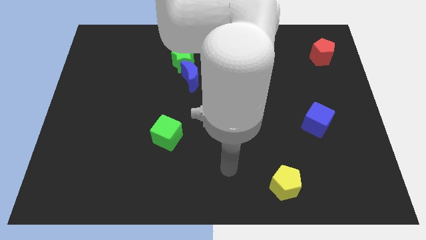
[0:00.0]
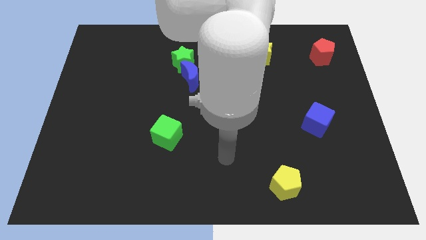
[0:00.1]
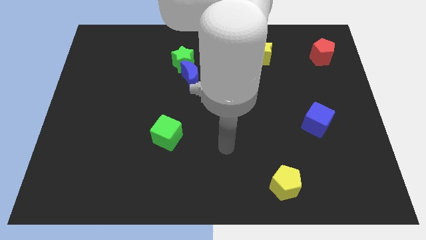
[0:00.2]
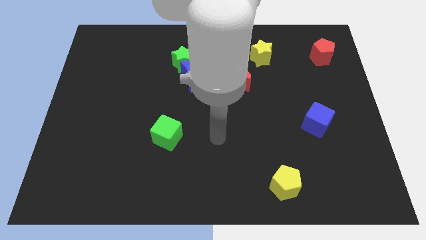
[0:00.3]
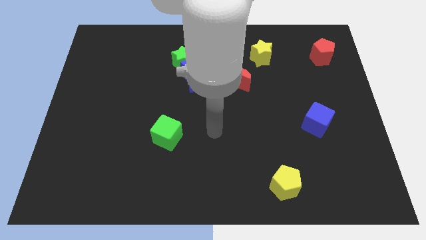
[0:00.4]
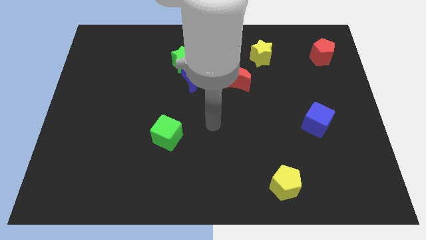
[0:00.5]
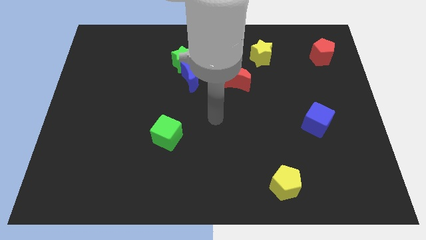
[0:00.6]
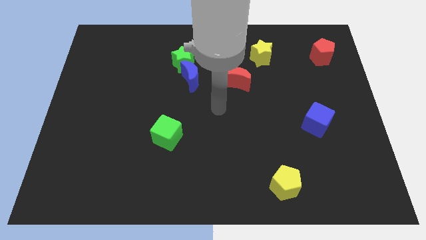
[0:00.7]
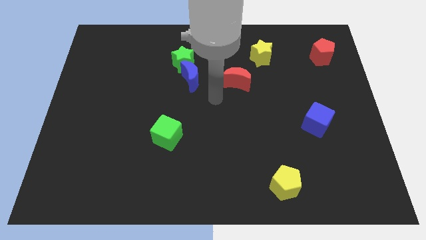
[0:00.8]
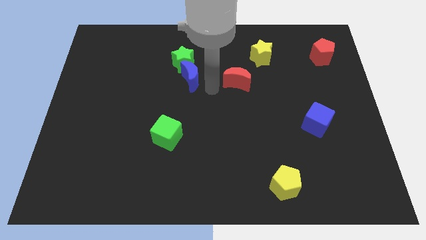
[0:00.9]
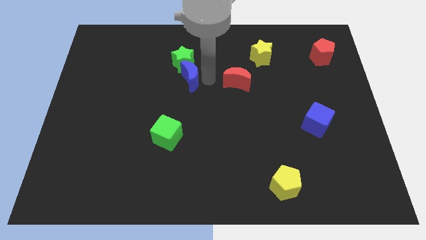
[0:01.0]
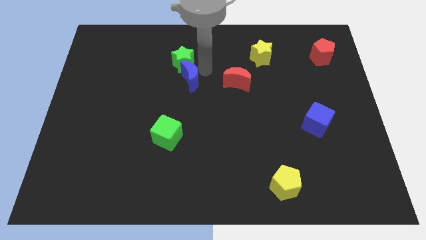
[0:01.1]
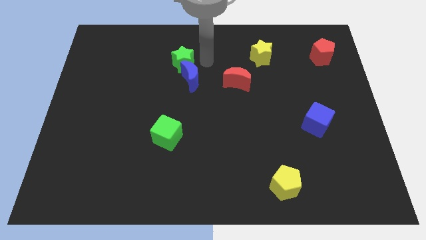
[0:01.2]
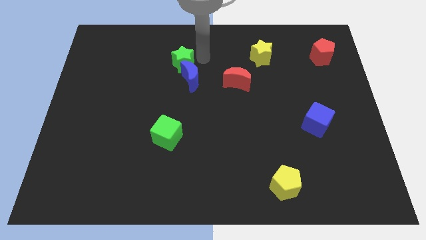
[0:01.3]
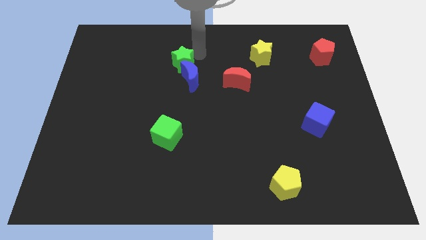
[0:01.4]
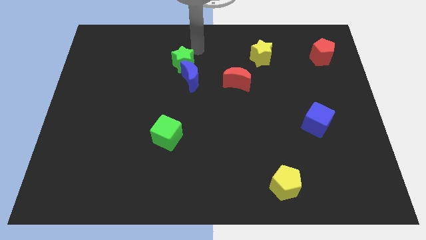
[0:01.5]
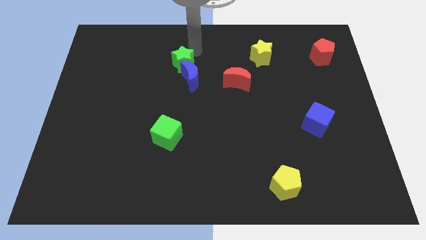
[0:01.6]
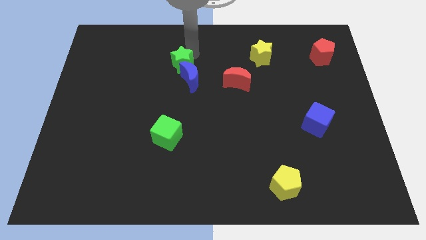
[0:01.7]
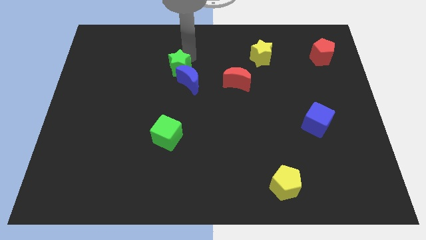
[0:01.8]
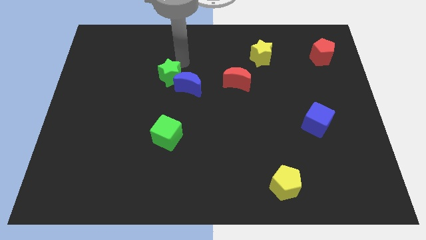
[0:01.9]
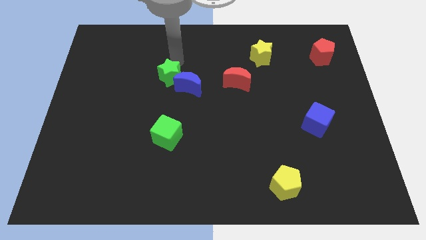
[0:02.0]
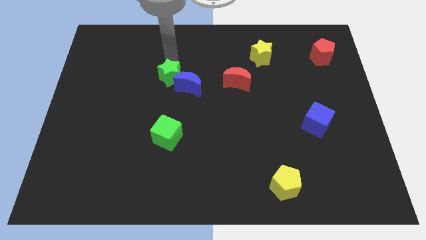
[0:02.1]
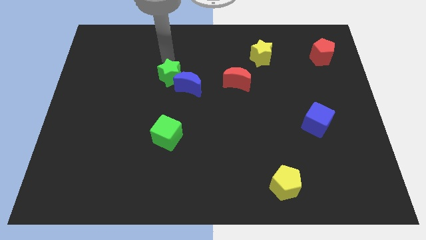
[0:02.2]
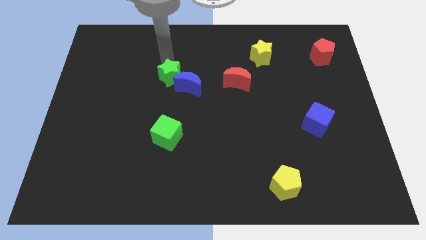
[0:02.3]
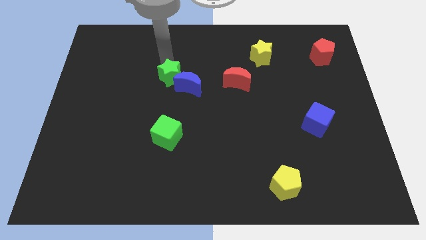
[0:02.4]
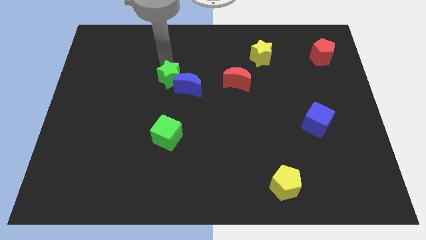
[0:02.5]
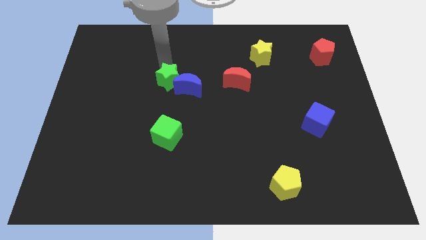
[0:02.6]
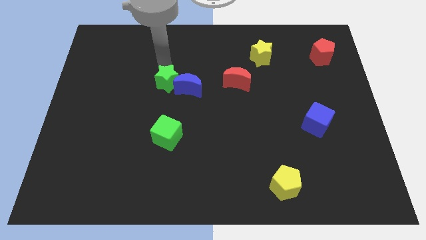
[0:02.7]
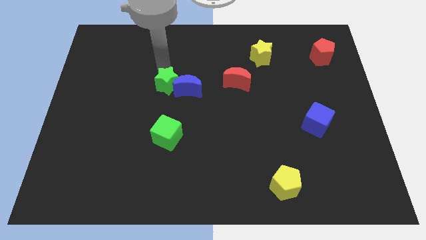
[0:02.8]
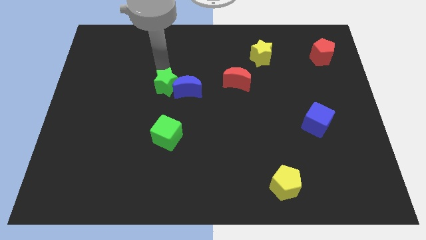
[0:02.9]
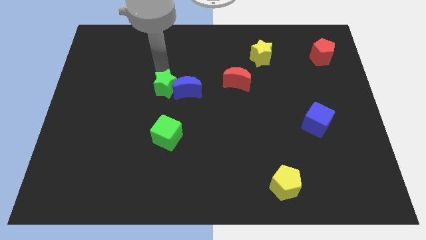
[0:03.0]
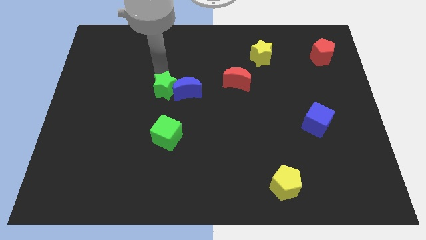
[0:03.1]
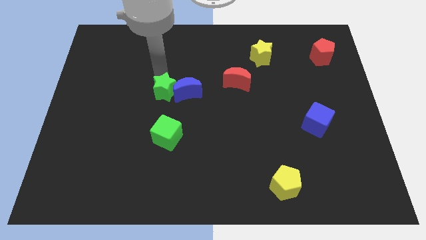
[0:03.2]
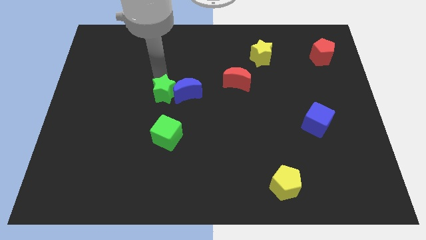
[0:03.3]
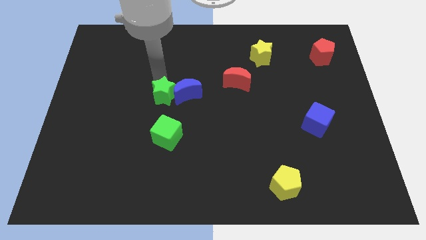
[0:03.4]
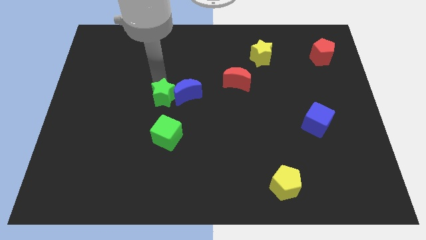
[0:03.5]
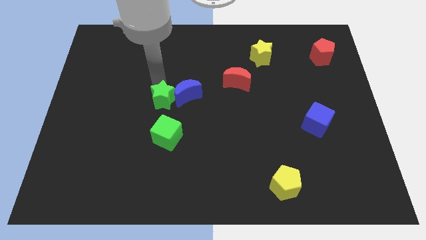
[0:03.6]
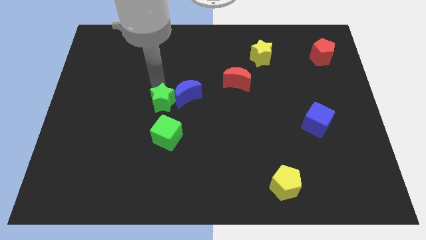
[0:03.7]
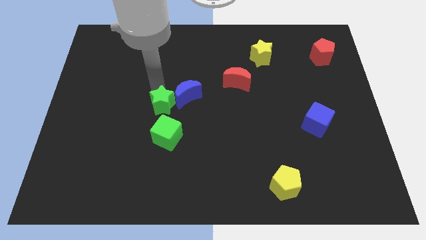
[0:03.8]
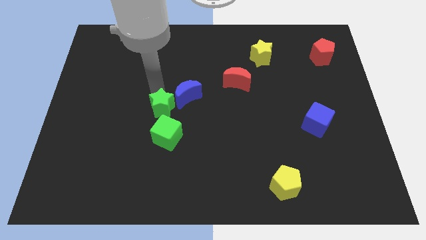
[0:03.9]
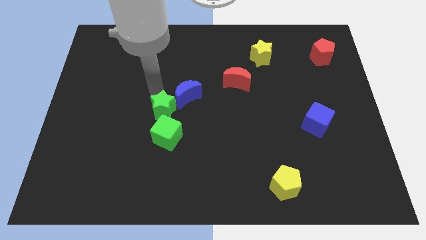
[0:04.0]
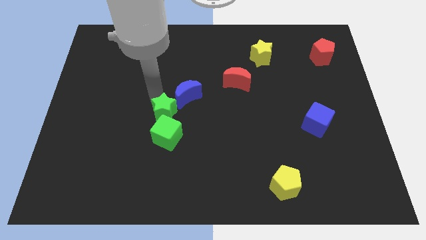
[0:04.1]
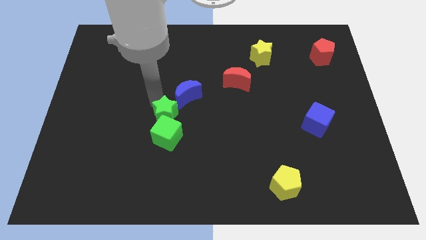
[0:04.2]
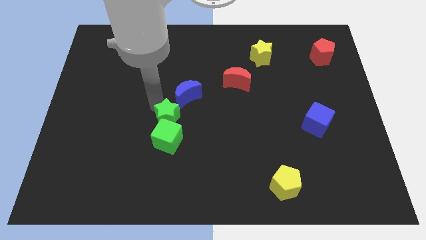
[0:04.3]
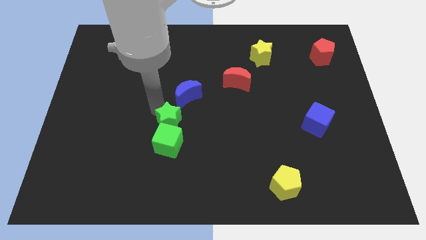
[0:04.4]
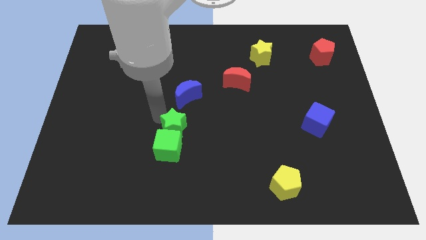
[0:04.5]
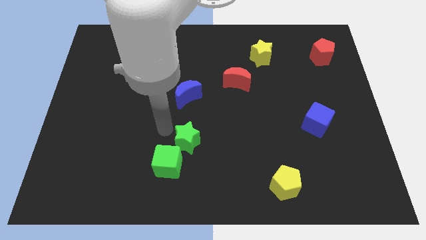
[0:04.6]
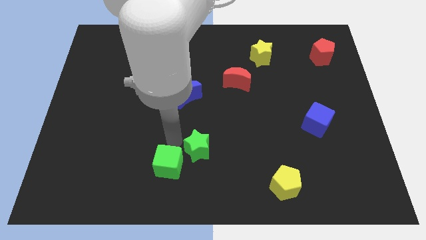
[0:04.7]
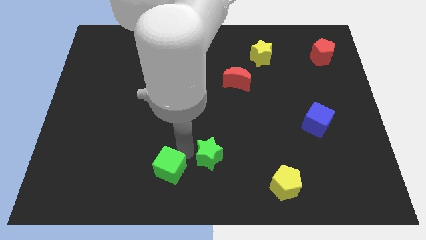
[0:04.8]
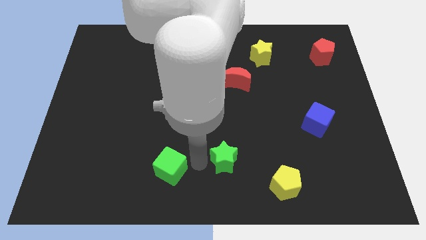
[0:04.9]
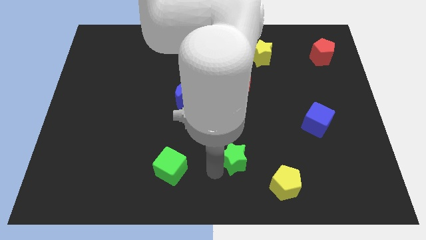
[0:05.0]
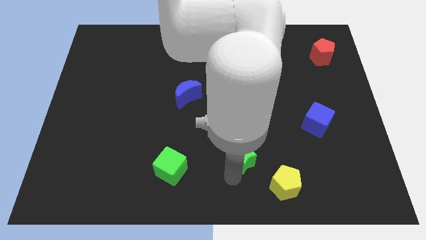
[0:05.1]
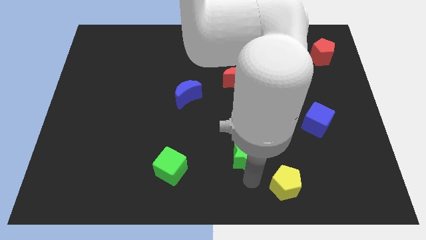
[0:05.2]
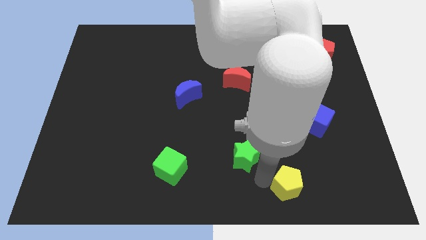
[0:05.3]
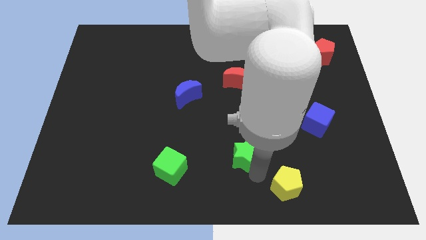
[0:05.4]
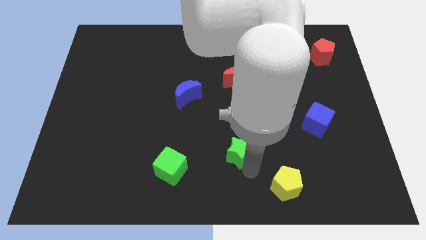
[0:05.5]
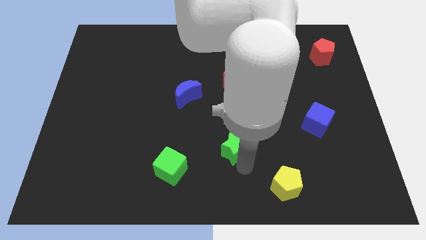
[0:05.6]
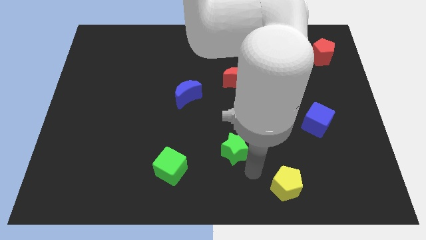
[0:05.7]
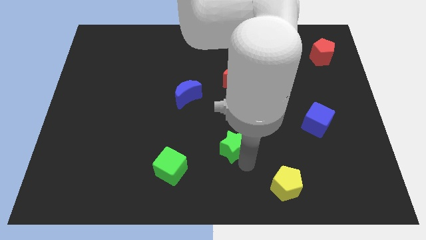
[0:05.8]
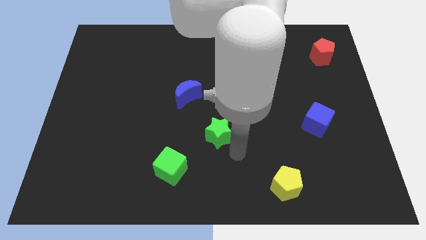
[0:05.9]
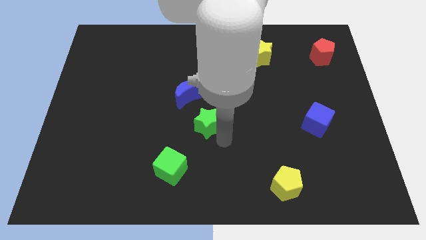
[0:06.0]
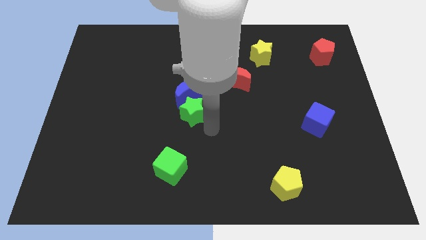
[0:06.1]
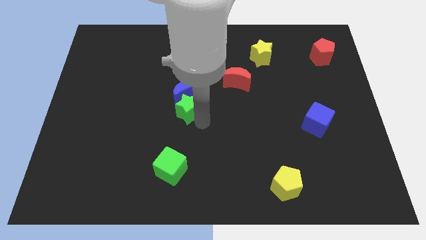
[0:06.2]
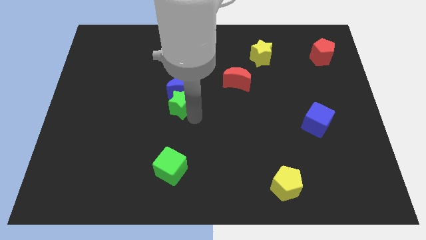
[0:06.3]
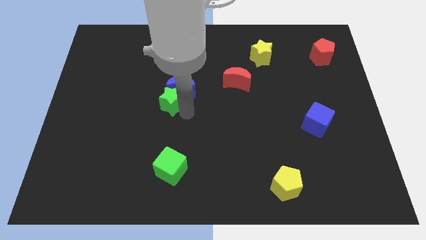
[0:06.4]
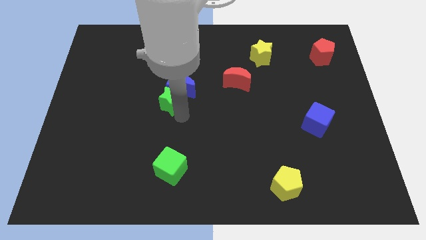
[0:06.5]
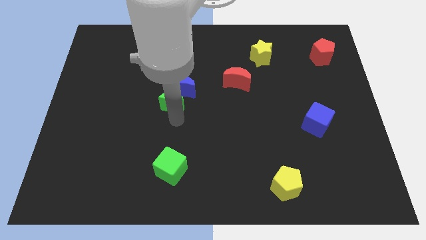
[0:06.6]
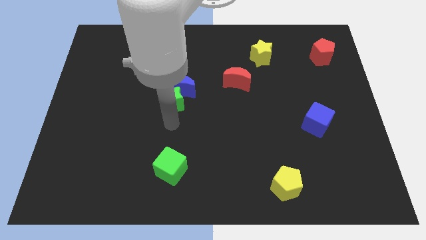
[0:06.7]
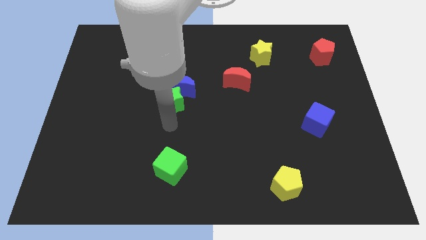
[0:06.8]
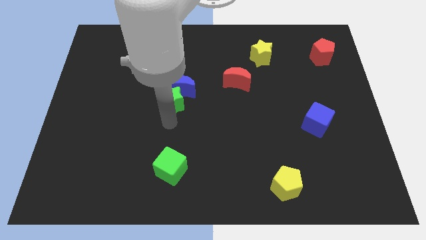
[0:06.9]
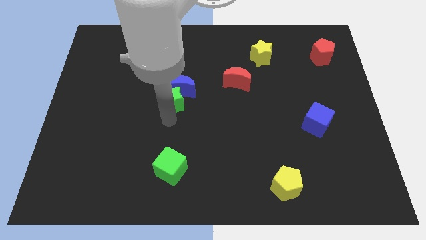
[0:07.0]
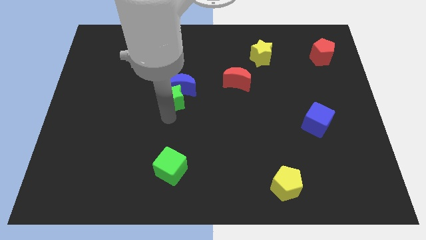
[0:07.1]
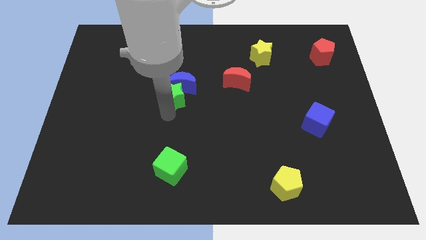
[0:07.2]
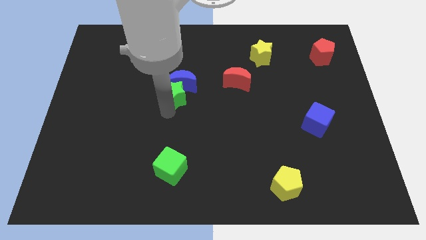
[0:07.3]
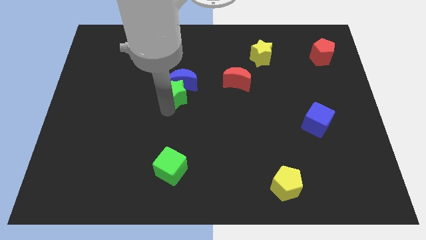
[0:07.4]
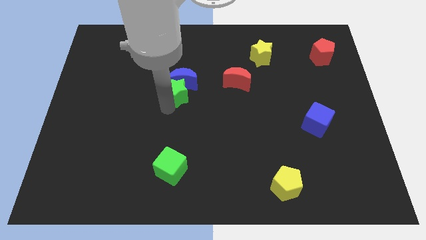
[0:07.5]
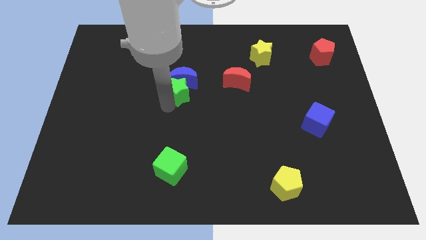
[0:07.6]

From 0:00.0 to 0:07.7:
move the green star to the left of the red moon

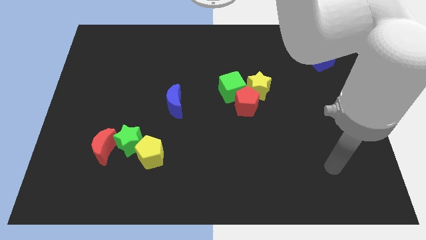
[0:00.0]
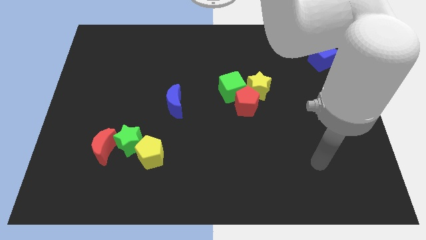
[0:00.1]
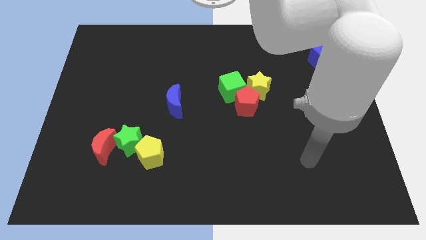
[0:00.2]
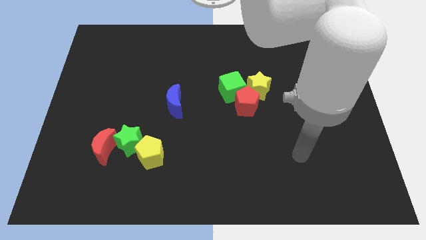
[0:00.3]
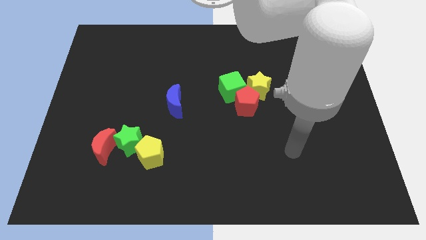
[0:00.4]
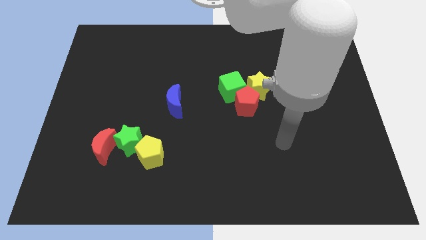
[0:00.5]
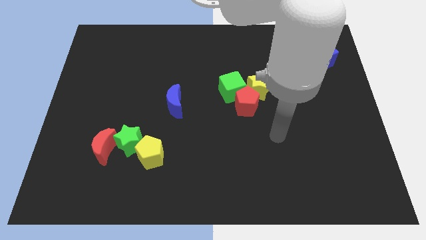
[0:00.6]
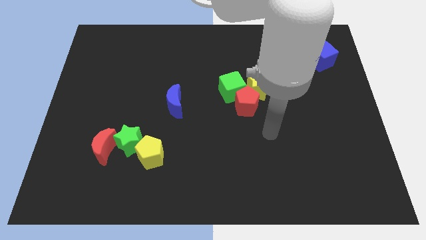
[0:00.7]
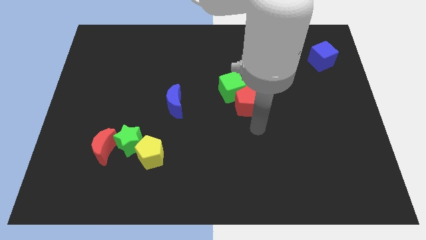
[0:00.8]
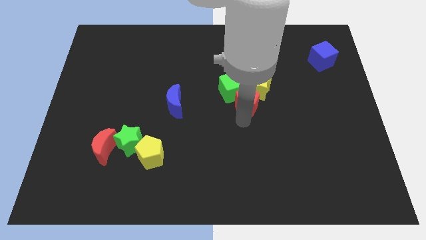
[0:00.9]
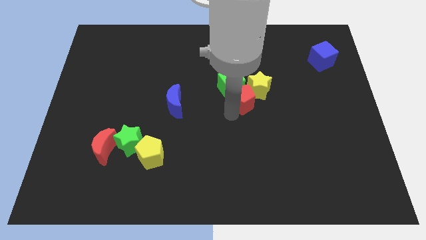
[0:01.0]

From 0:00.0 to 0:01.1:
put the yellow star just right of the red pentagon
